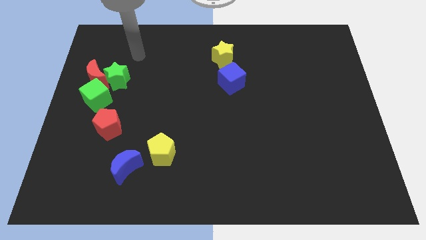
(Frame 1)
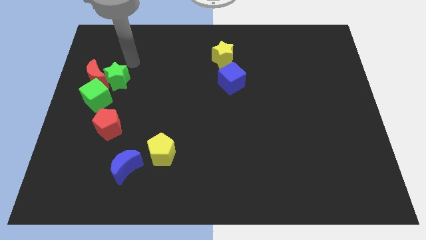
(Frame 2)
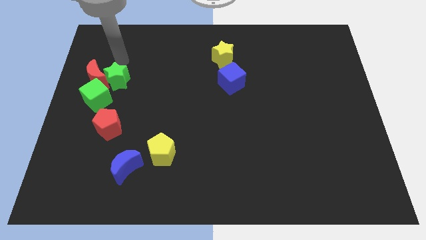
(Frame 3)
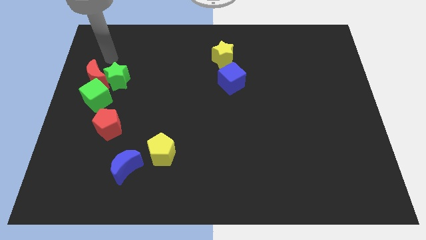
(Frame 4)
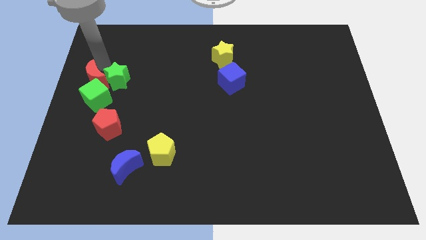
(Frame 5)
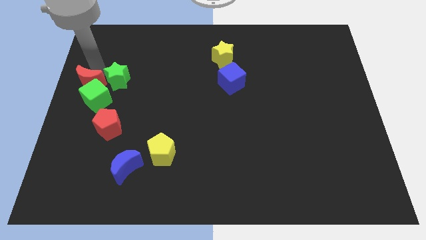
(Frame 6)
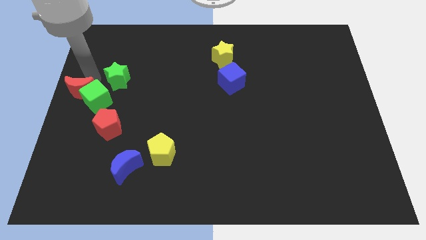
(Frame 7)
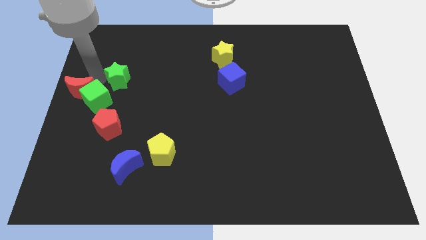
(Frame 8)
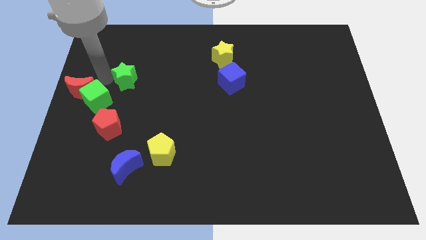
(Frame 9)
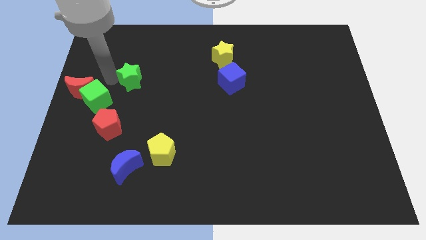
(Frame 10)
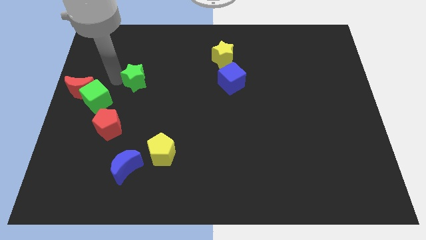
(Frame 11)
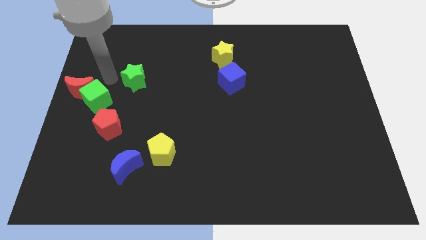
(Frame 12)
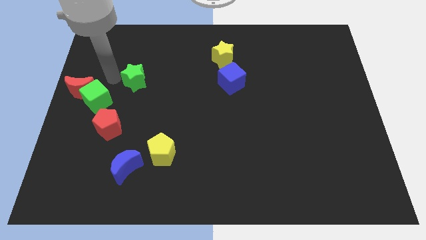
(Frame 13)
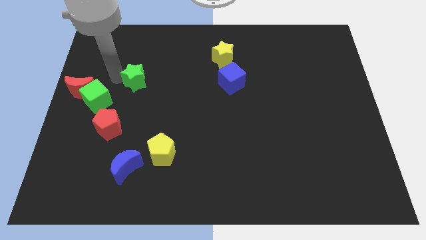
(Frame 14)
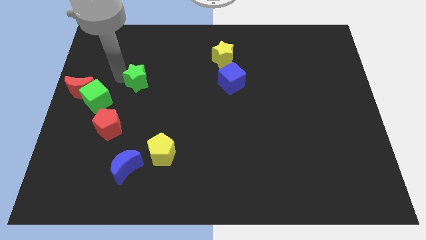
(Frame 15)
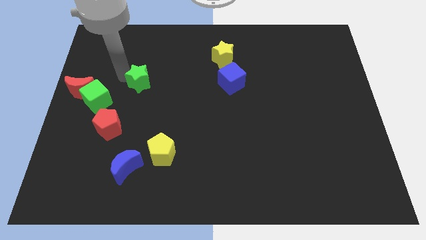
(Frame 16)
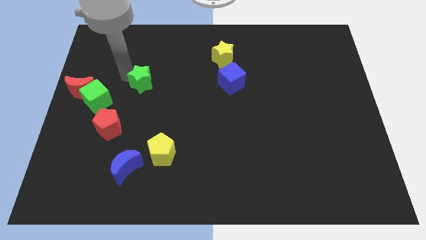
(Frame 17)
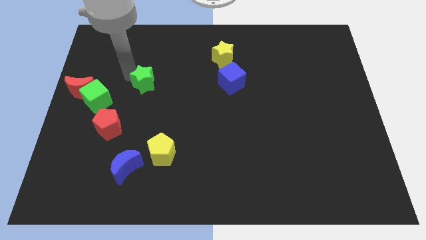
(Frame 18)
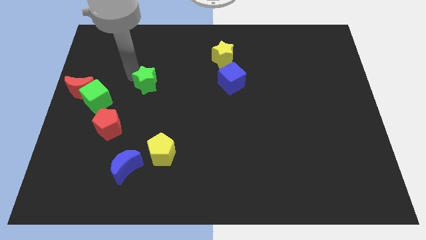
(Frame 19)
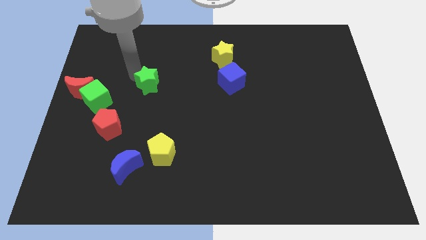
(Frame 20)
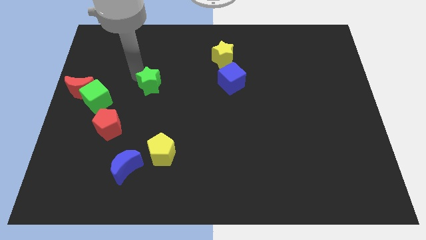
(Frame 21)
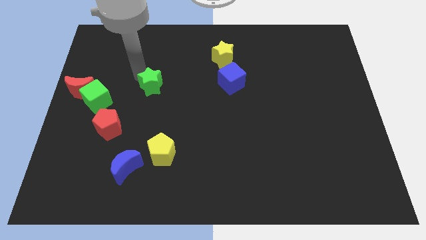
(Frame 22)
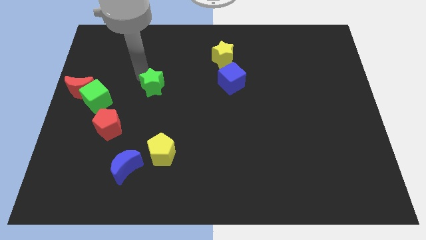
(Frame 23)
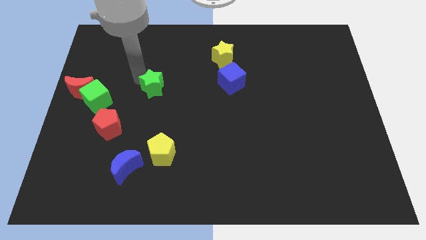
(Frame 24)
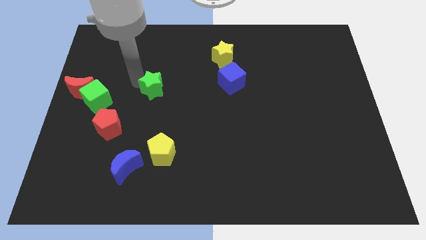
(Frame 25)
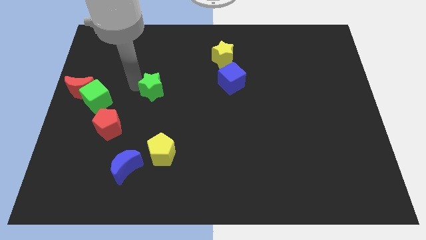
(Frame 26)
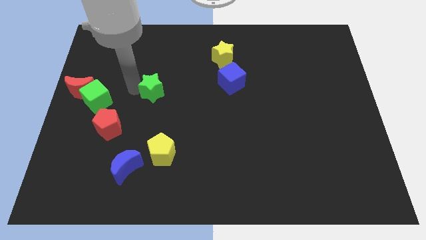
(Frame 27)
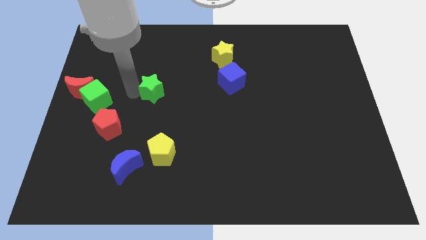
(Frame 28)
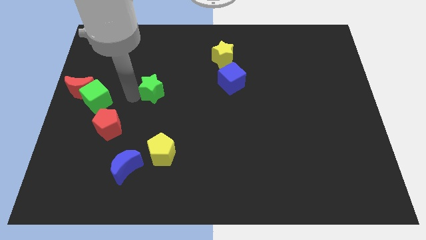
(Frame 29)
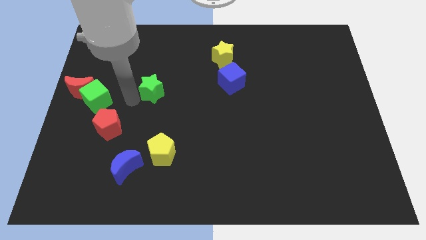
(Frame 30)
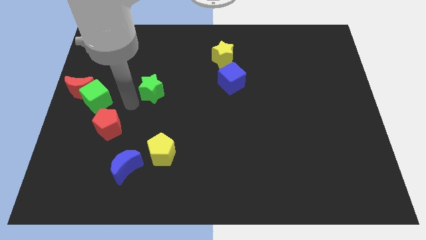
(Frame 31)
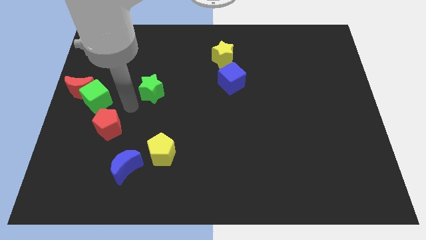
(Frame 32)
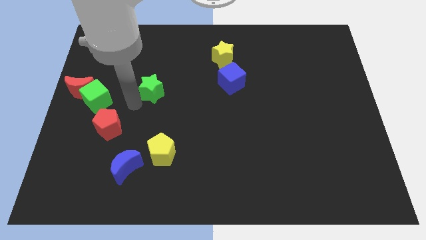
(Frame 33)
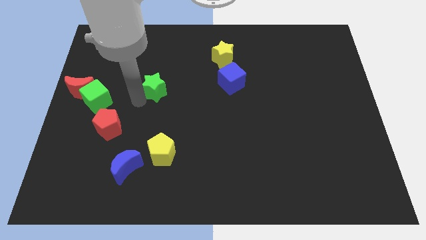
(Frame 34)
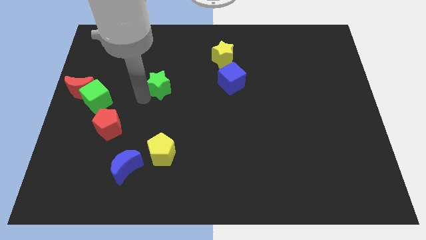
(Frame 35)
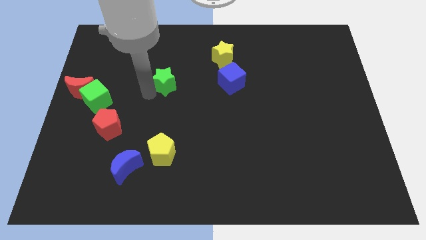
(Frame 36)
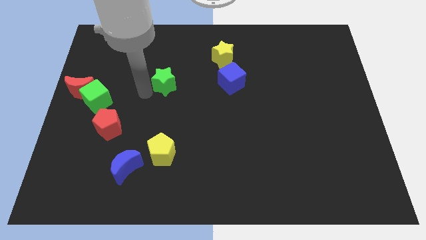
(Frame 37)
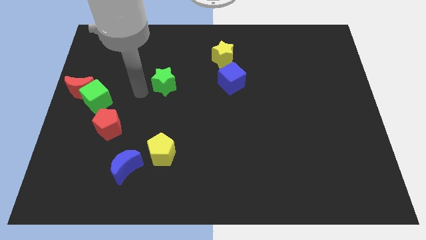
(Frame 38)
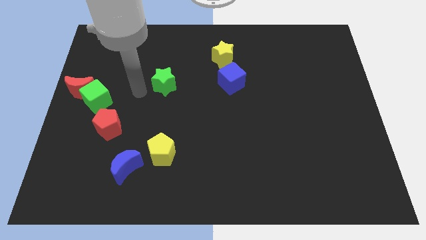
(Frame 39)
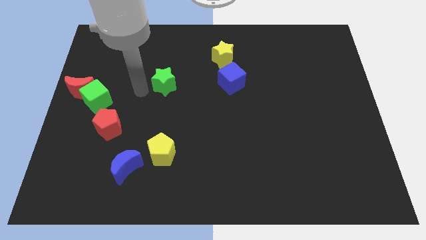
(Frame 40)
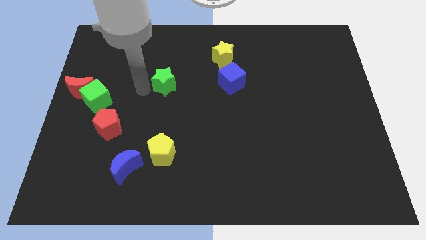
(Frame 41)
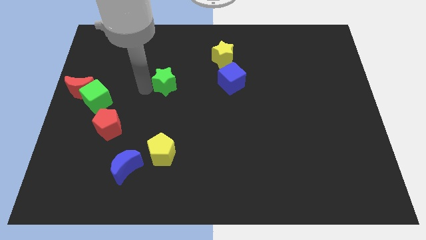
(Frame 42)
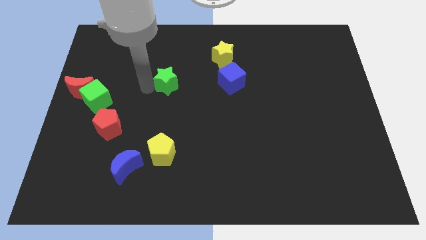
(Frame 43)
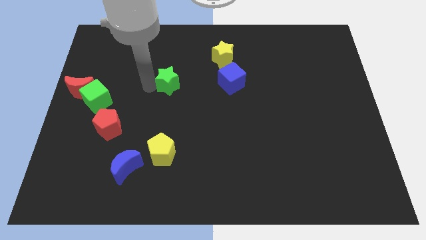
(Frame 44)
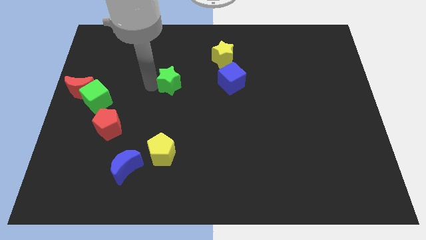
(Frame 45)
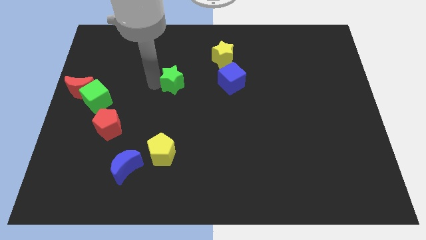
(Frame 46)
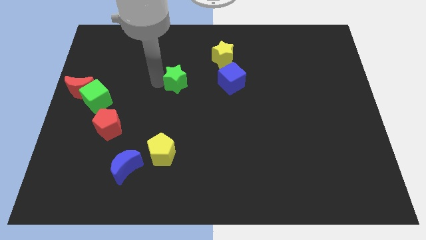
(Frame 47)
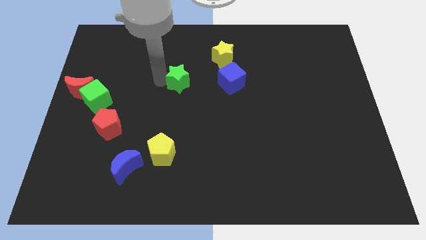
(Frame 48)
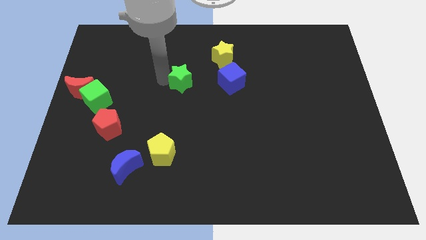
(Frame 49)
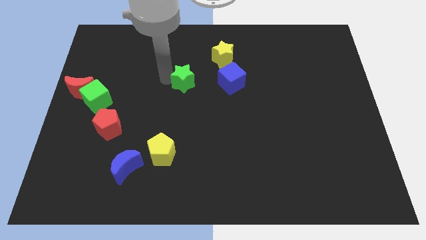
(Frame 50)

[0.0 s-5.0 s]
put the green star diagonally down and to the left of the yellow star

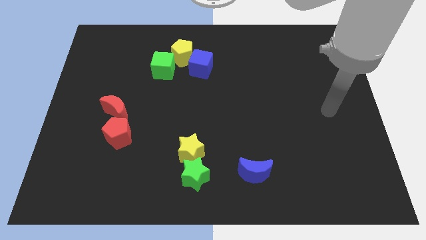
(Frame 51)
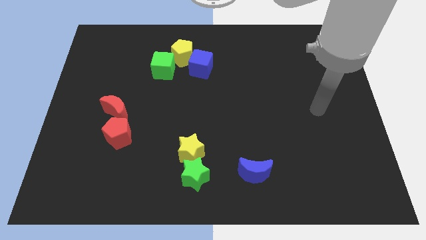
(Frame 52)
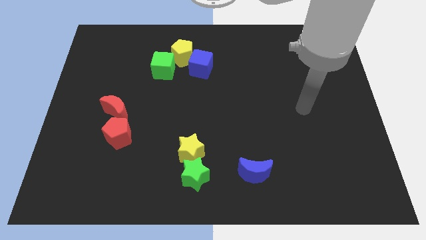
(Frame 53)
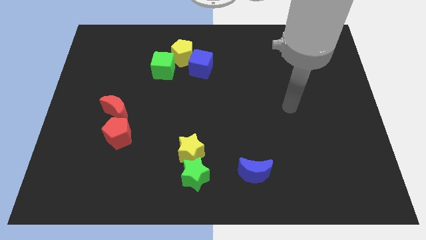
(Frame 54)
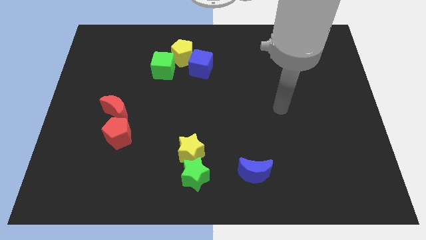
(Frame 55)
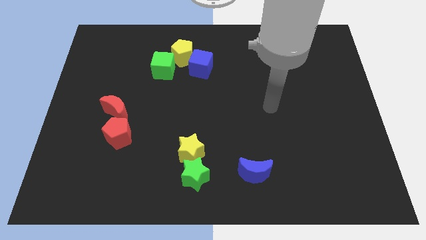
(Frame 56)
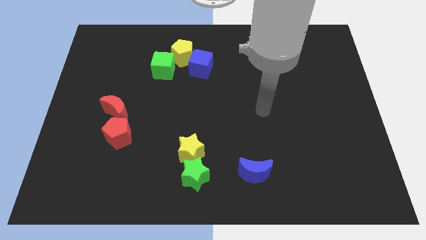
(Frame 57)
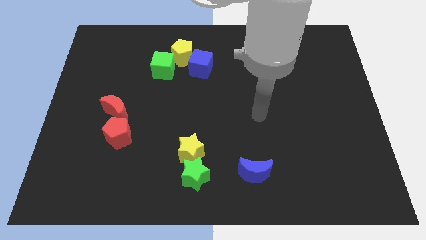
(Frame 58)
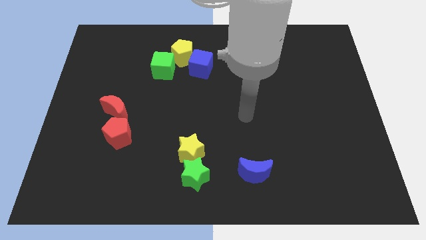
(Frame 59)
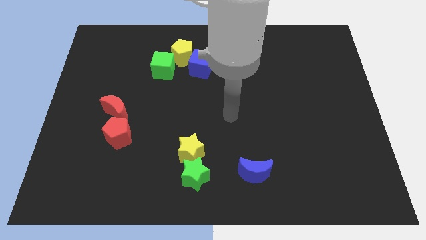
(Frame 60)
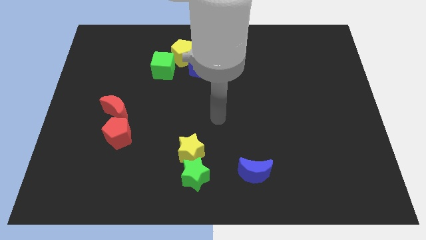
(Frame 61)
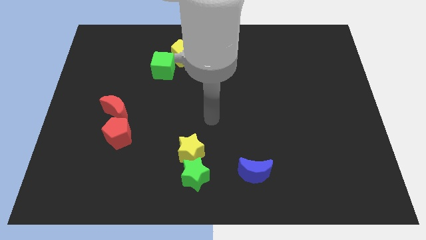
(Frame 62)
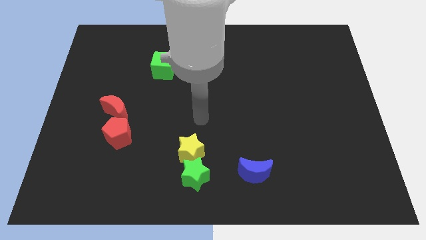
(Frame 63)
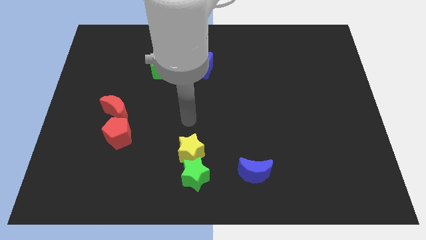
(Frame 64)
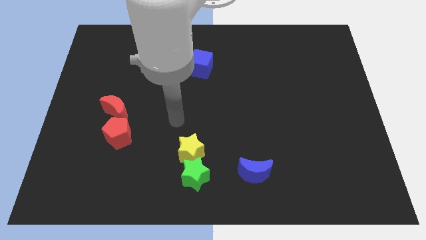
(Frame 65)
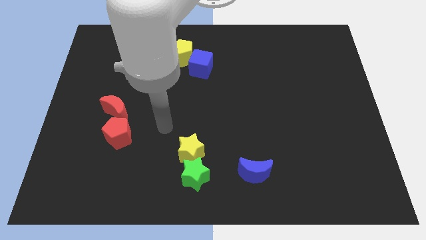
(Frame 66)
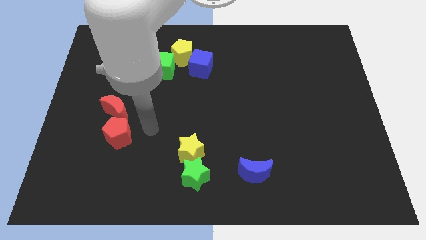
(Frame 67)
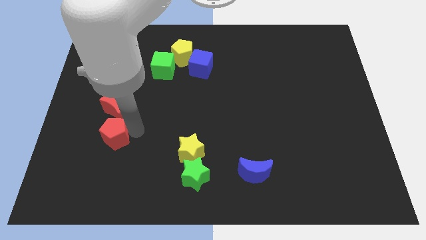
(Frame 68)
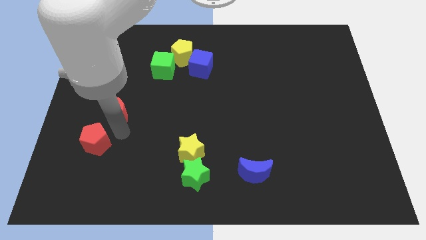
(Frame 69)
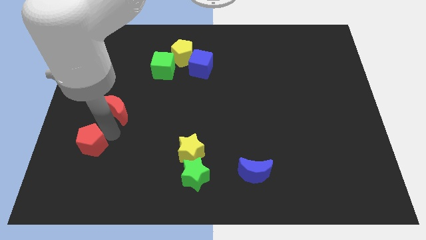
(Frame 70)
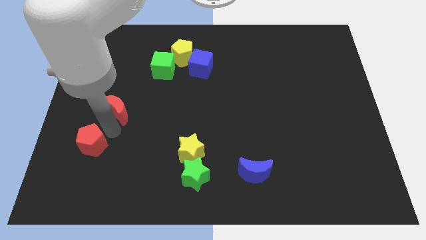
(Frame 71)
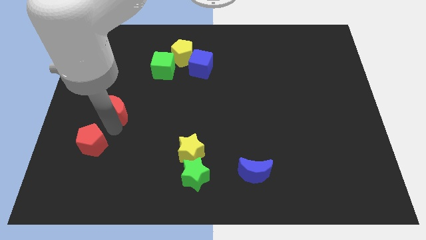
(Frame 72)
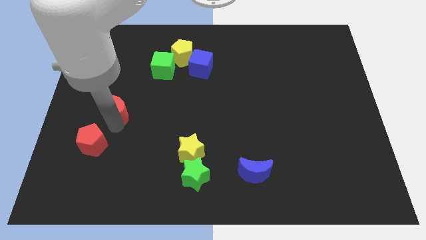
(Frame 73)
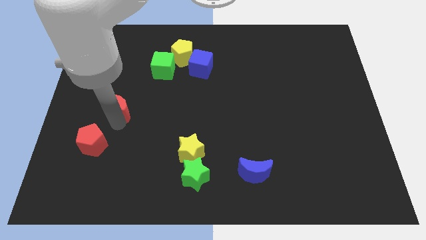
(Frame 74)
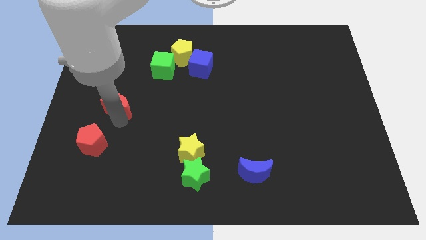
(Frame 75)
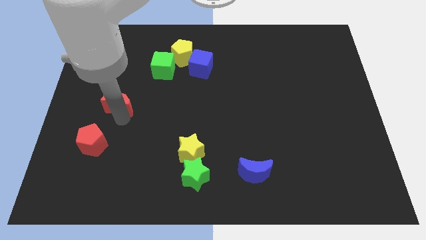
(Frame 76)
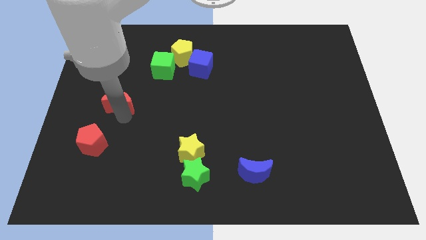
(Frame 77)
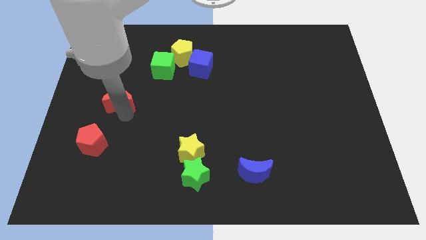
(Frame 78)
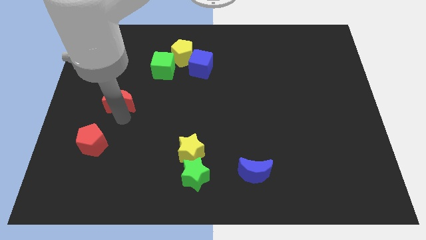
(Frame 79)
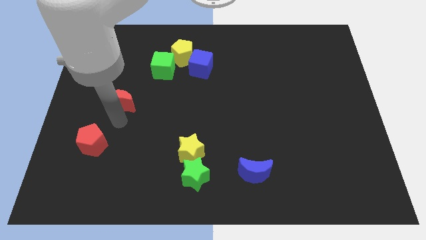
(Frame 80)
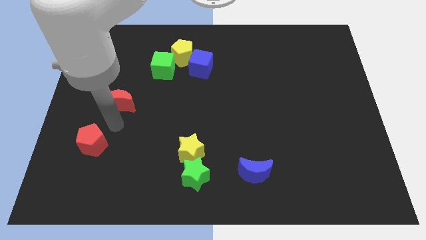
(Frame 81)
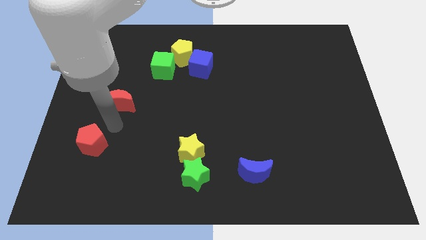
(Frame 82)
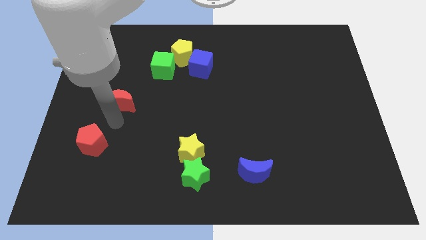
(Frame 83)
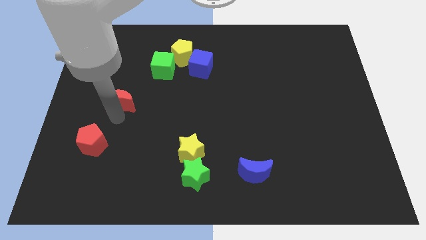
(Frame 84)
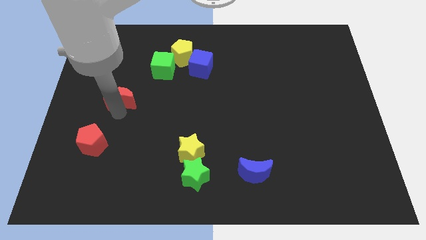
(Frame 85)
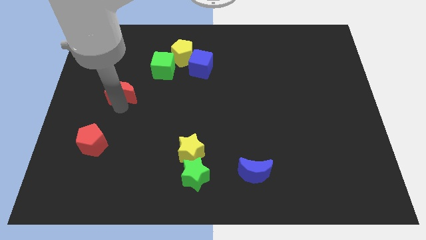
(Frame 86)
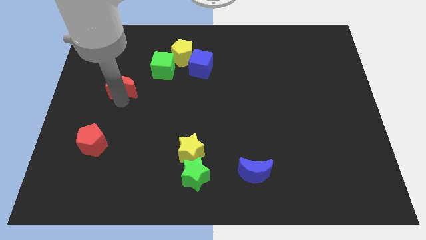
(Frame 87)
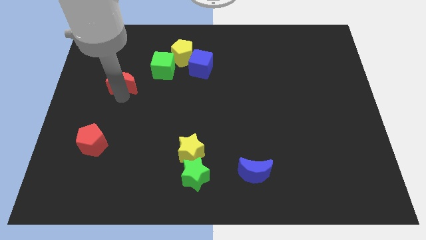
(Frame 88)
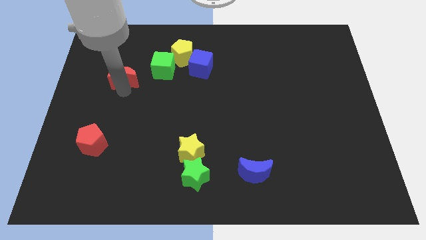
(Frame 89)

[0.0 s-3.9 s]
move the red moon left of the green cube
